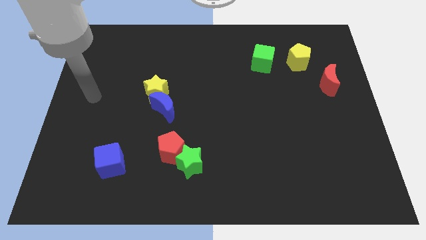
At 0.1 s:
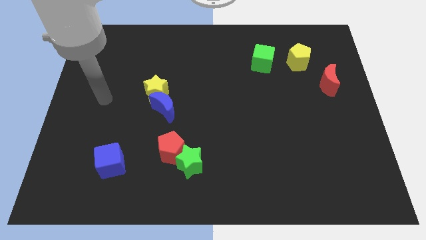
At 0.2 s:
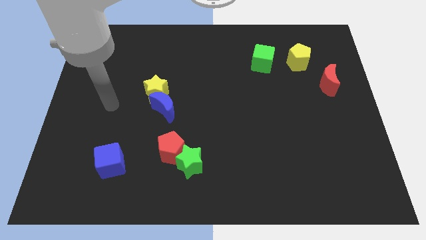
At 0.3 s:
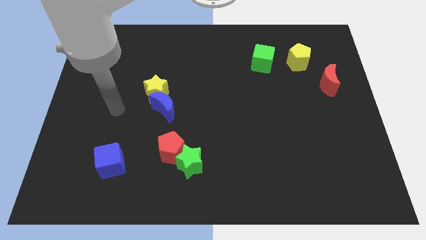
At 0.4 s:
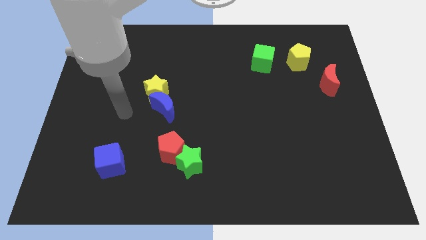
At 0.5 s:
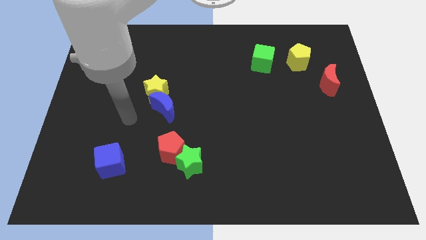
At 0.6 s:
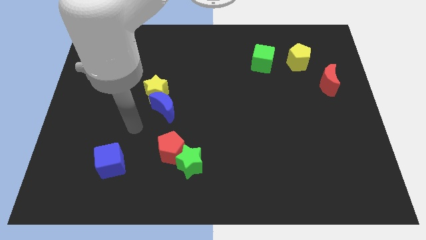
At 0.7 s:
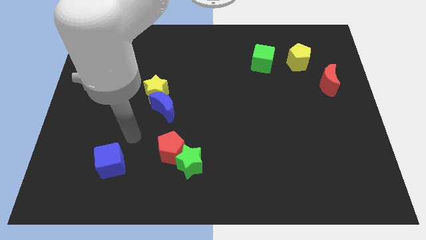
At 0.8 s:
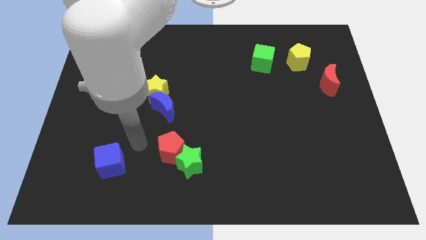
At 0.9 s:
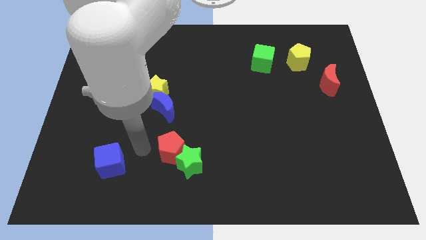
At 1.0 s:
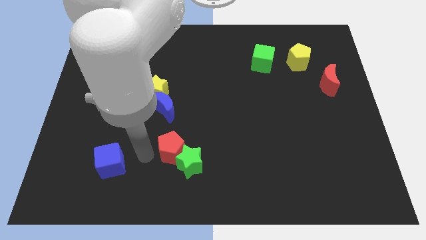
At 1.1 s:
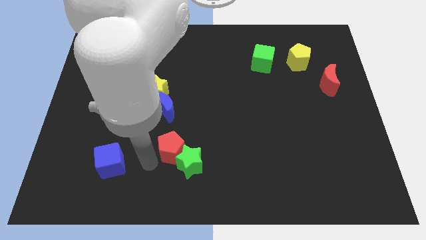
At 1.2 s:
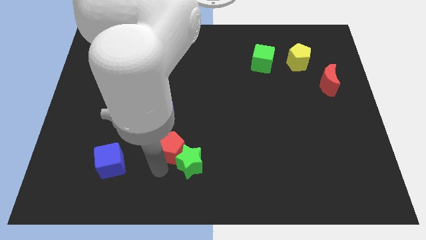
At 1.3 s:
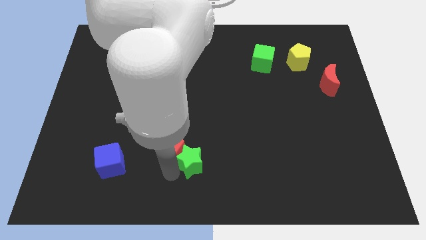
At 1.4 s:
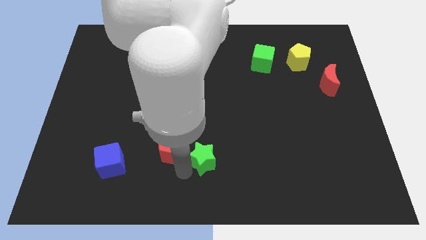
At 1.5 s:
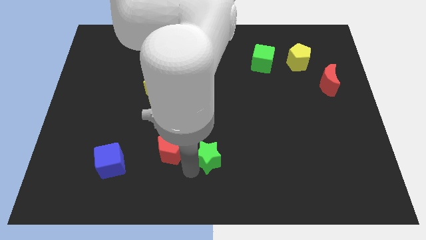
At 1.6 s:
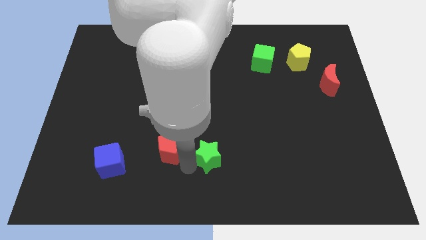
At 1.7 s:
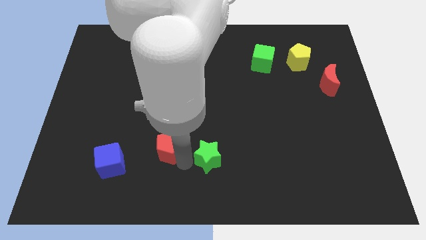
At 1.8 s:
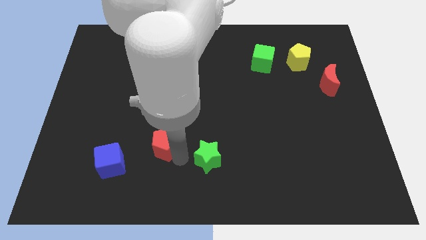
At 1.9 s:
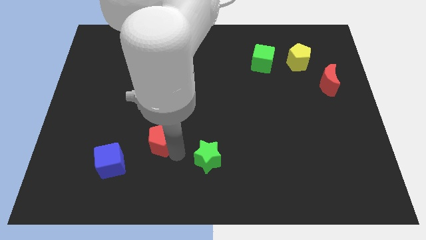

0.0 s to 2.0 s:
pull the red pentagon apart from the green star

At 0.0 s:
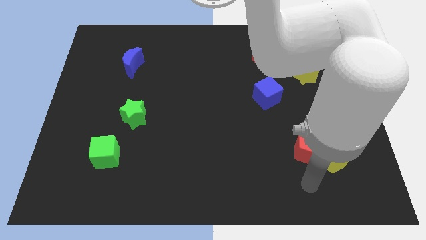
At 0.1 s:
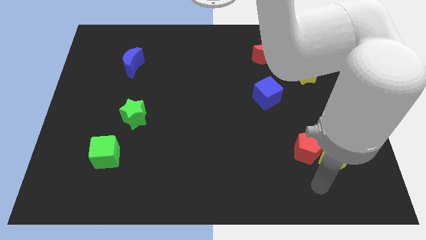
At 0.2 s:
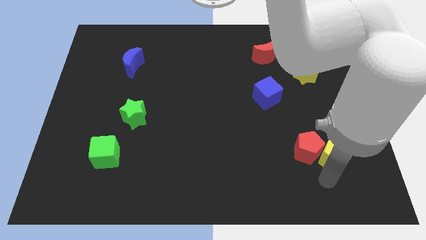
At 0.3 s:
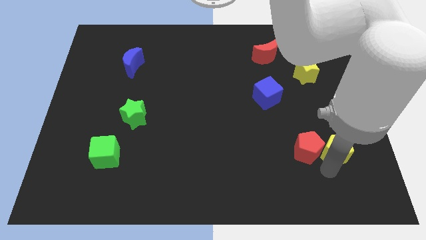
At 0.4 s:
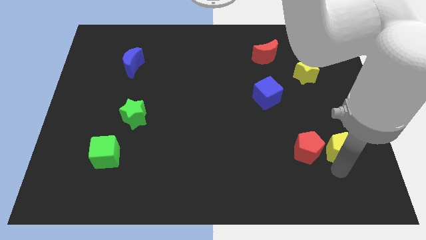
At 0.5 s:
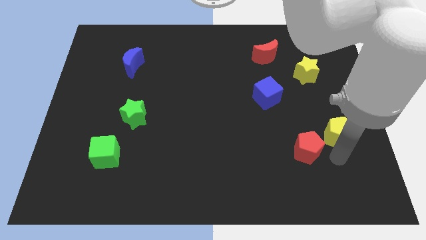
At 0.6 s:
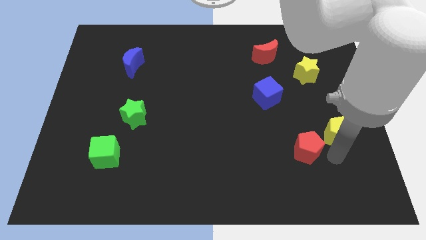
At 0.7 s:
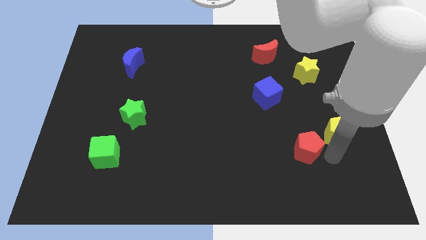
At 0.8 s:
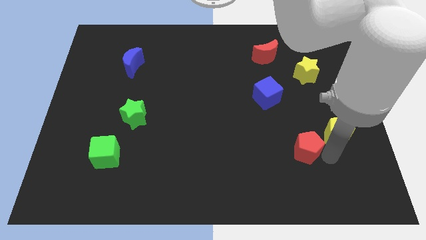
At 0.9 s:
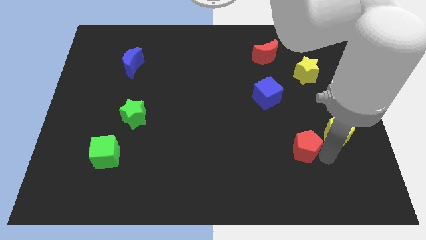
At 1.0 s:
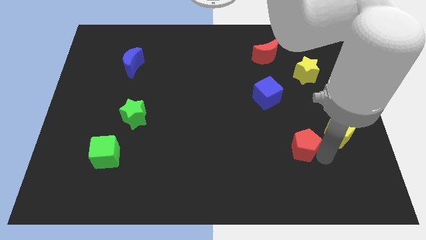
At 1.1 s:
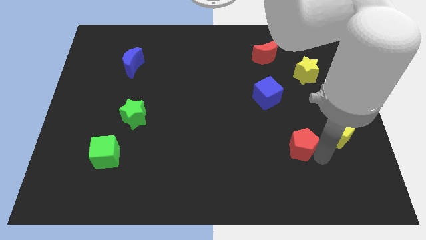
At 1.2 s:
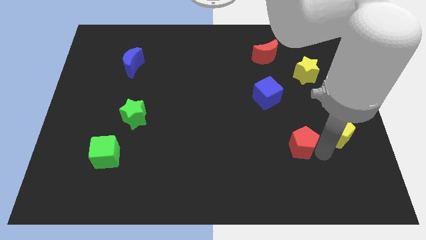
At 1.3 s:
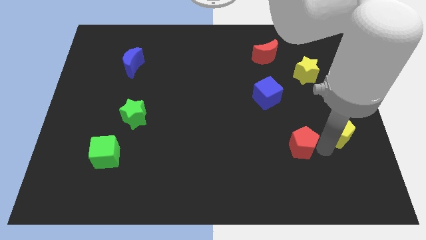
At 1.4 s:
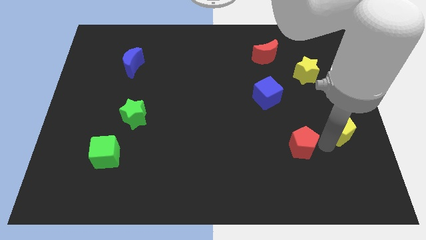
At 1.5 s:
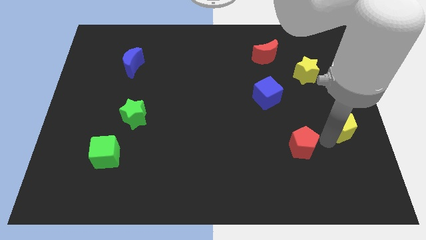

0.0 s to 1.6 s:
pull the red pentagon apart from the yellow pentagon

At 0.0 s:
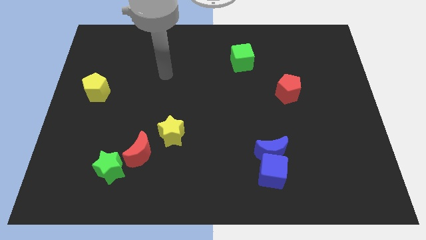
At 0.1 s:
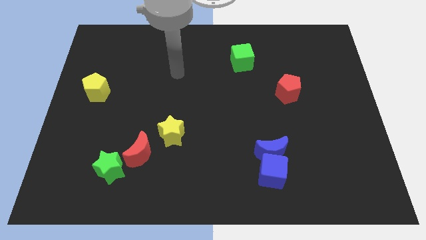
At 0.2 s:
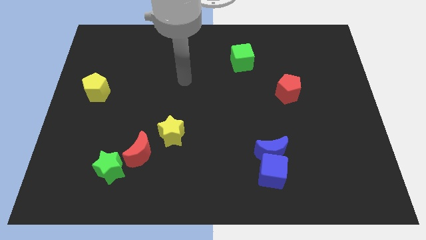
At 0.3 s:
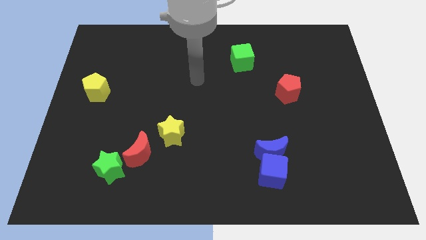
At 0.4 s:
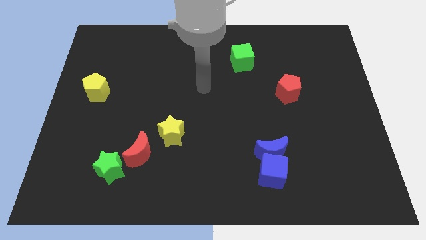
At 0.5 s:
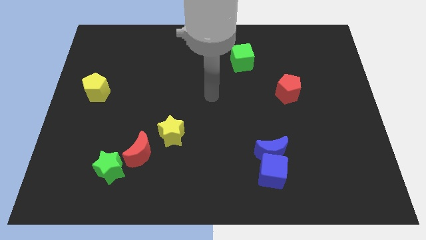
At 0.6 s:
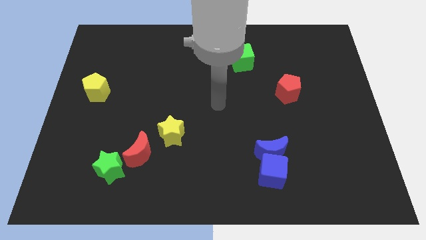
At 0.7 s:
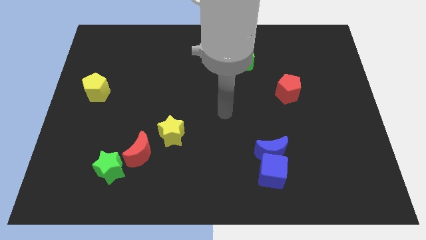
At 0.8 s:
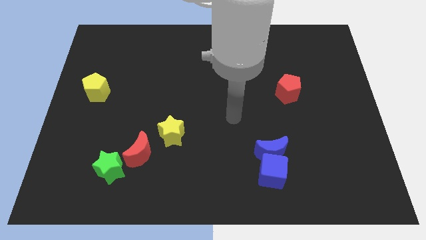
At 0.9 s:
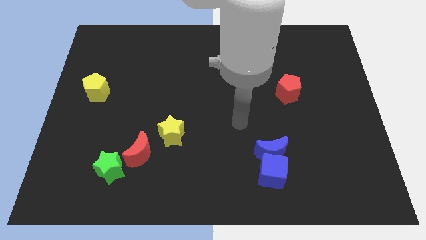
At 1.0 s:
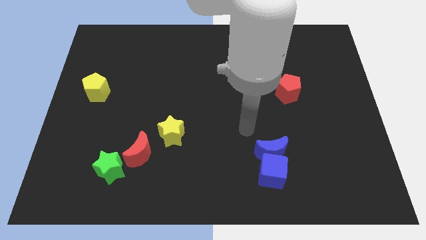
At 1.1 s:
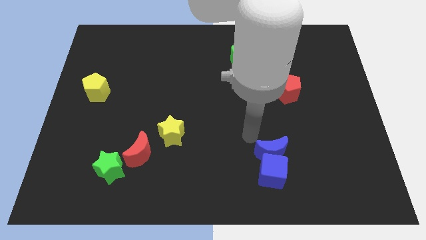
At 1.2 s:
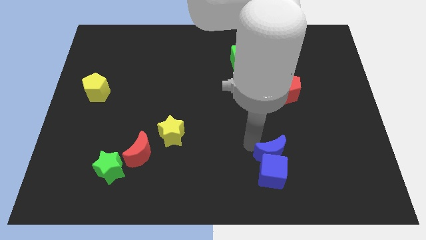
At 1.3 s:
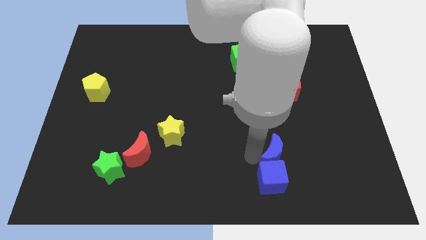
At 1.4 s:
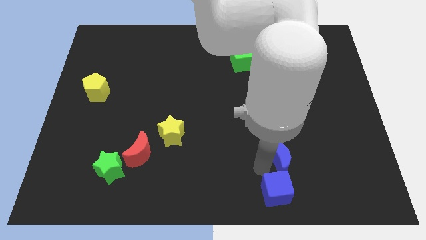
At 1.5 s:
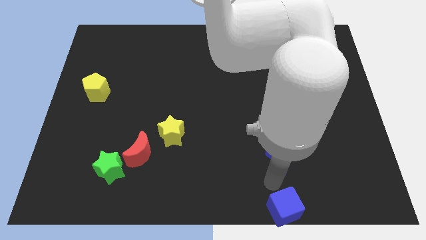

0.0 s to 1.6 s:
move the blue moon away from the blue cube

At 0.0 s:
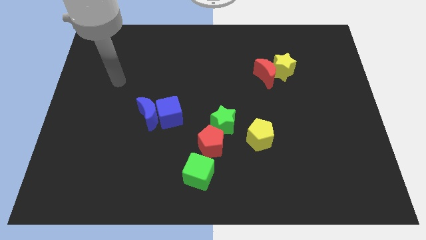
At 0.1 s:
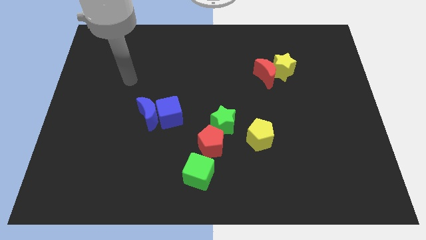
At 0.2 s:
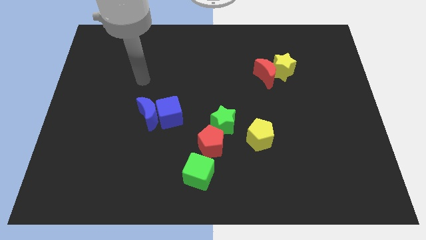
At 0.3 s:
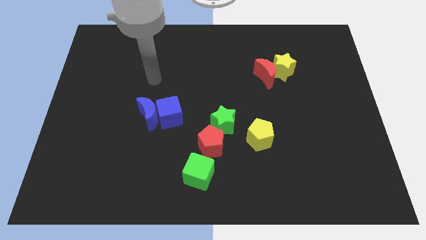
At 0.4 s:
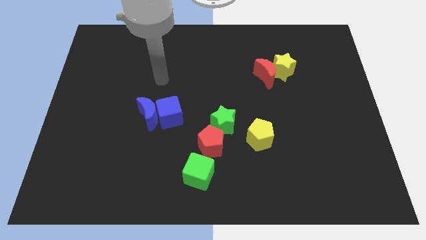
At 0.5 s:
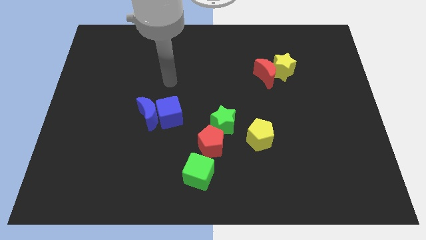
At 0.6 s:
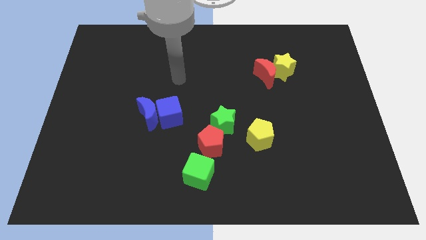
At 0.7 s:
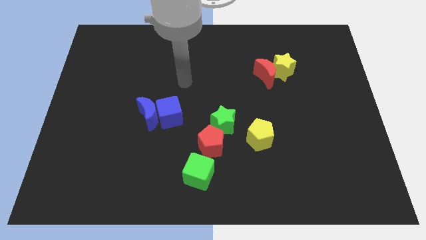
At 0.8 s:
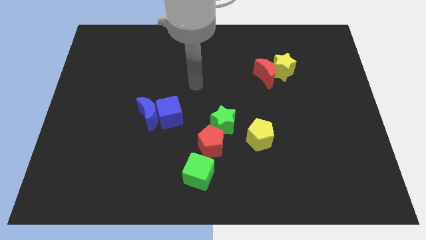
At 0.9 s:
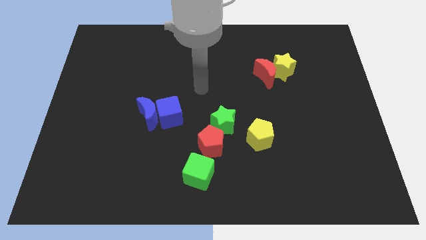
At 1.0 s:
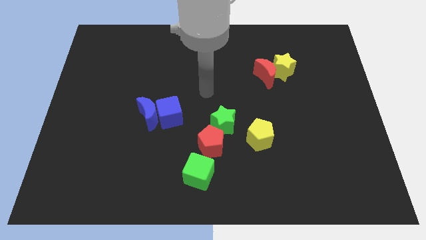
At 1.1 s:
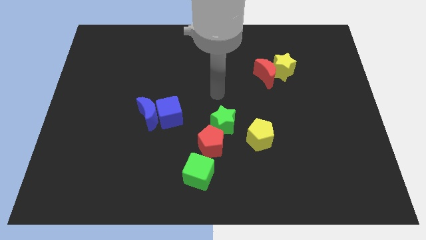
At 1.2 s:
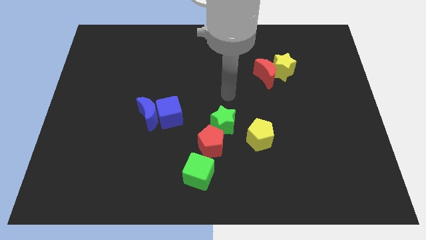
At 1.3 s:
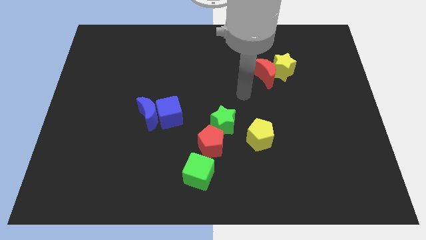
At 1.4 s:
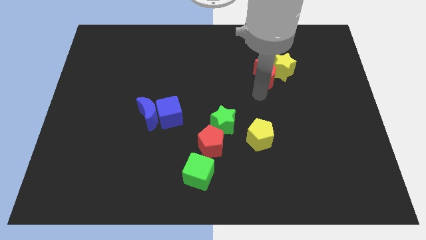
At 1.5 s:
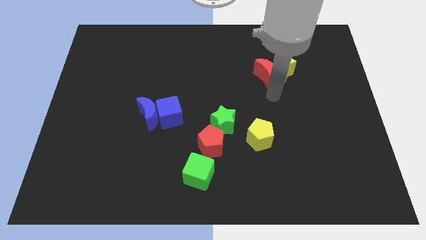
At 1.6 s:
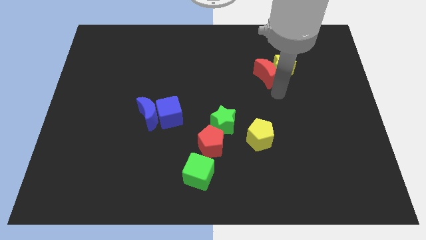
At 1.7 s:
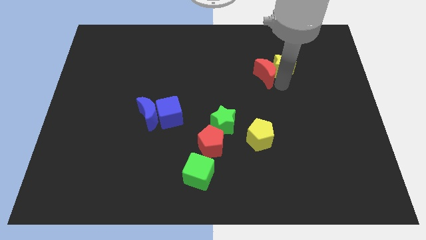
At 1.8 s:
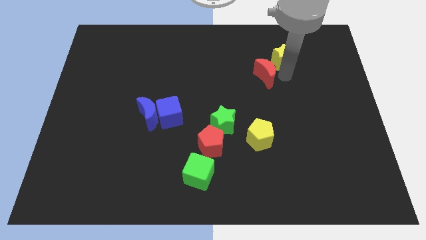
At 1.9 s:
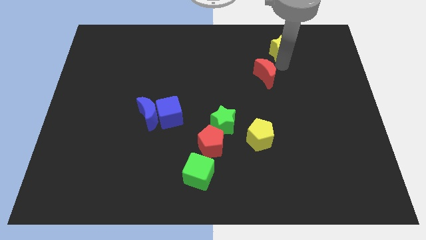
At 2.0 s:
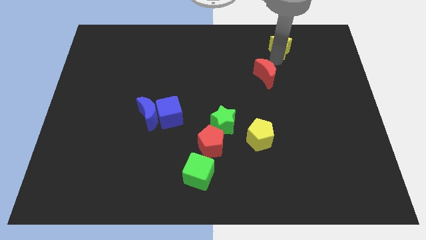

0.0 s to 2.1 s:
pull the red moon apart from the yellow star

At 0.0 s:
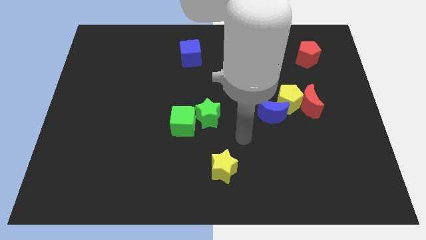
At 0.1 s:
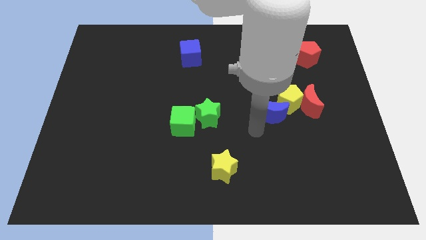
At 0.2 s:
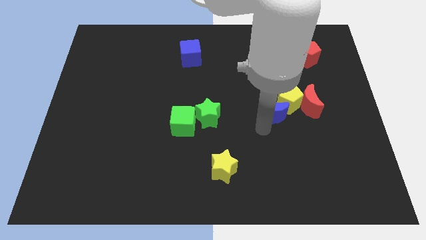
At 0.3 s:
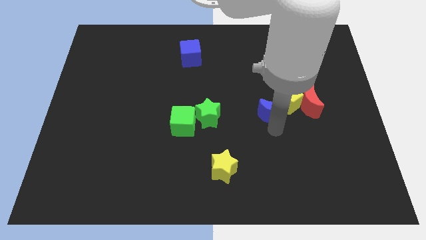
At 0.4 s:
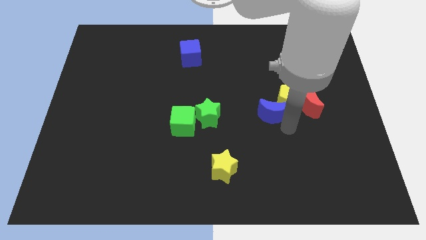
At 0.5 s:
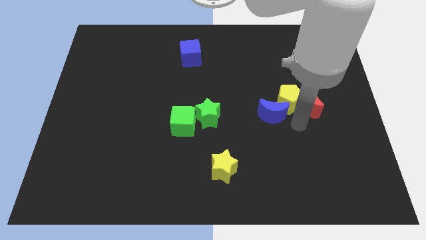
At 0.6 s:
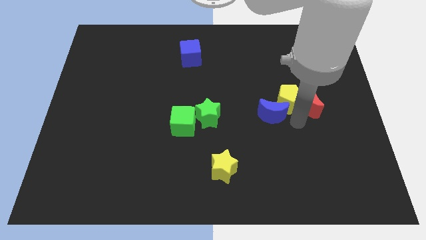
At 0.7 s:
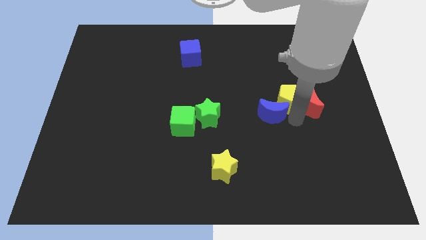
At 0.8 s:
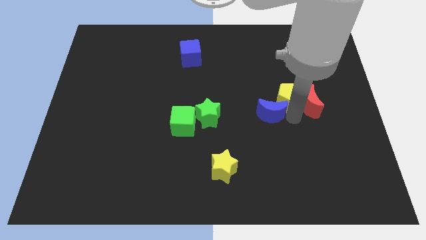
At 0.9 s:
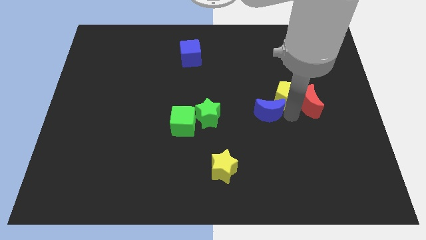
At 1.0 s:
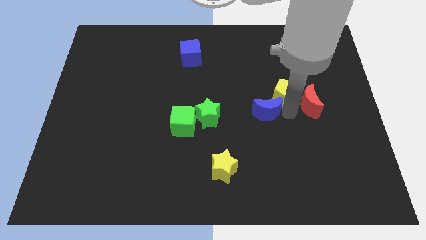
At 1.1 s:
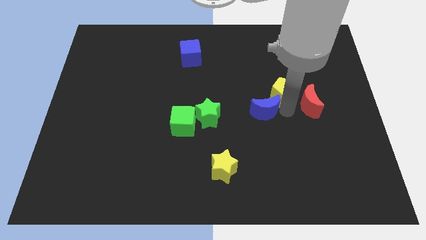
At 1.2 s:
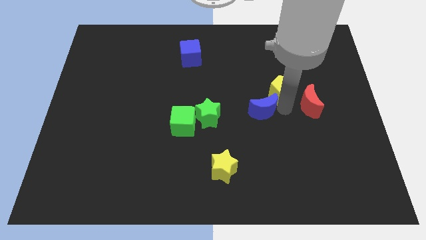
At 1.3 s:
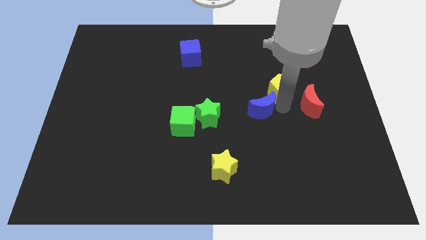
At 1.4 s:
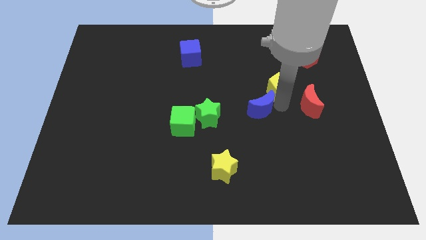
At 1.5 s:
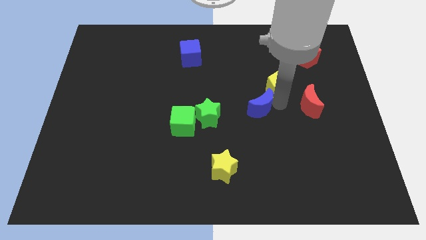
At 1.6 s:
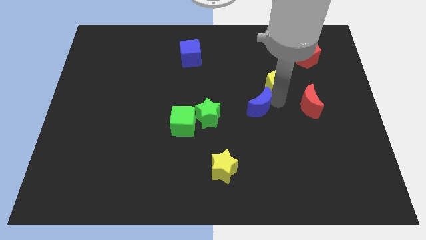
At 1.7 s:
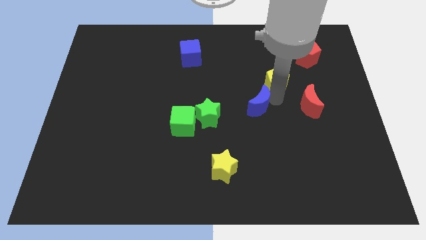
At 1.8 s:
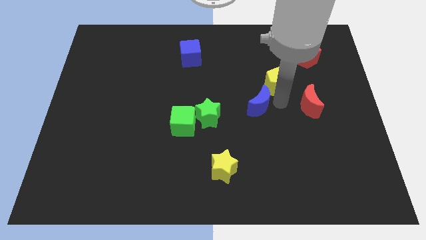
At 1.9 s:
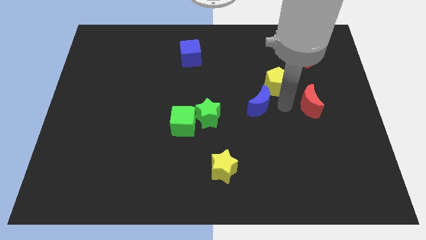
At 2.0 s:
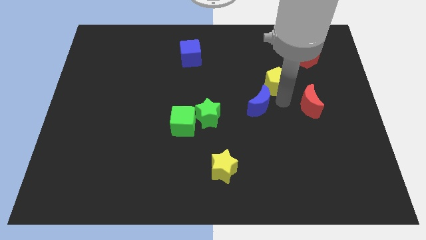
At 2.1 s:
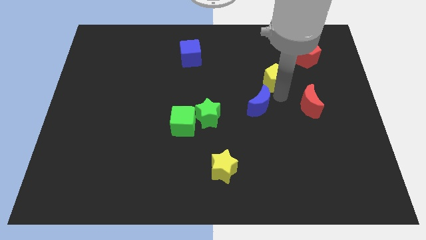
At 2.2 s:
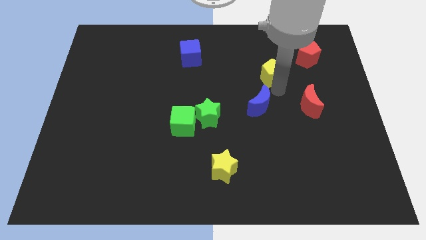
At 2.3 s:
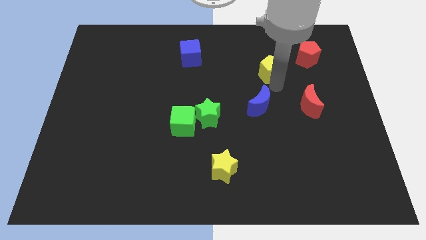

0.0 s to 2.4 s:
separate the yellow pentagon from the red moon and blue moon
